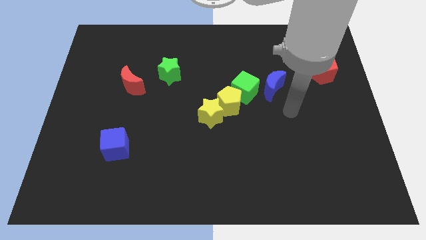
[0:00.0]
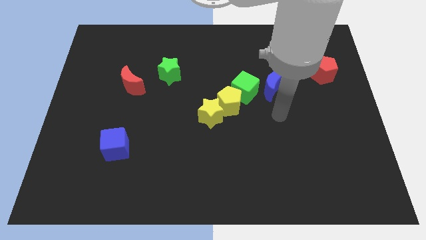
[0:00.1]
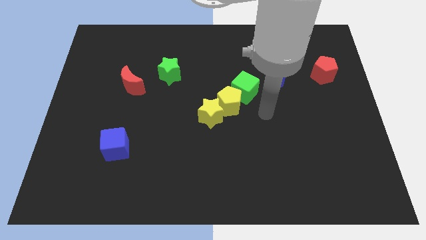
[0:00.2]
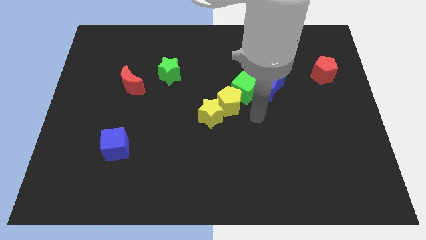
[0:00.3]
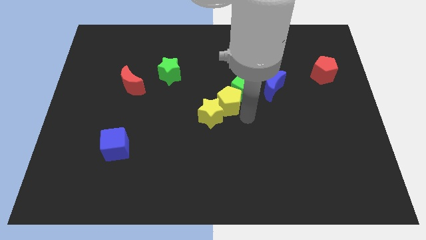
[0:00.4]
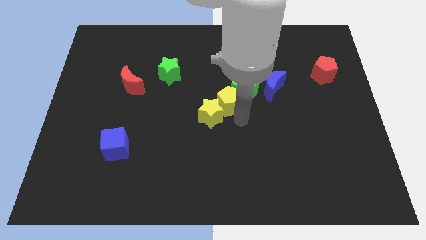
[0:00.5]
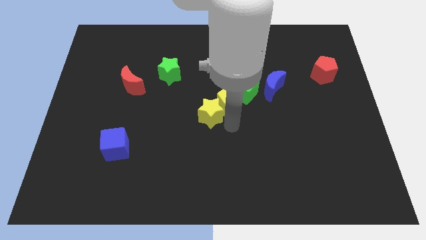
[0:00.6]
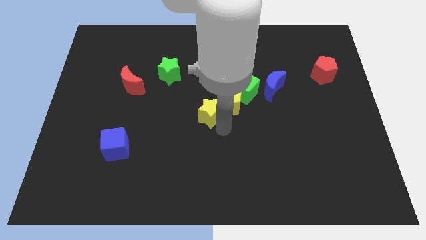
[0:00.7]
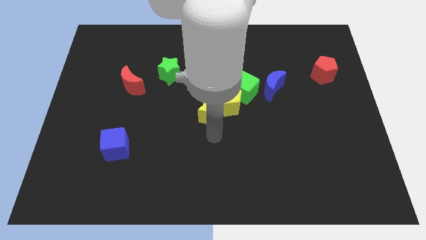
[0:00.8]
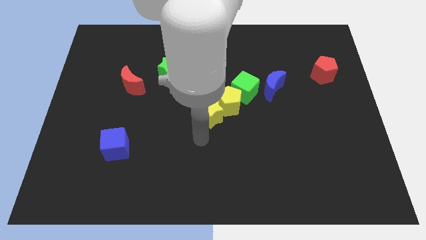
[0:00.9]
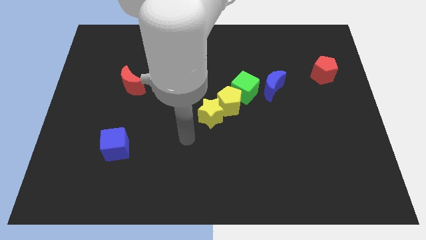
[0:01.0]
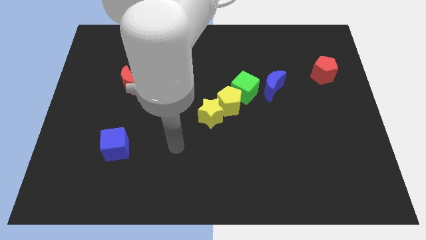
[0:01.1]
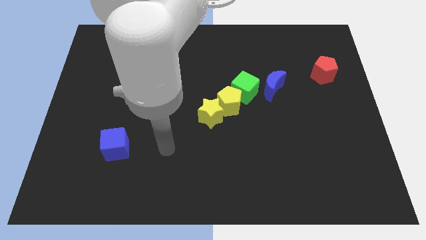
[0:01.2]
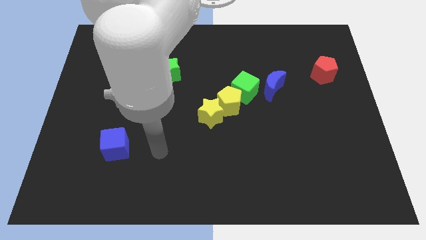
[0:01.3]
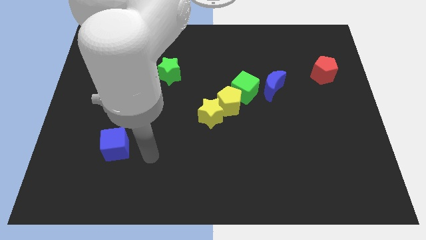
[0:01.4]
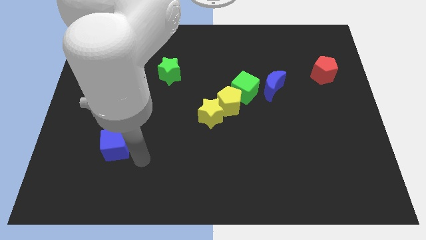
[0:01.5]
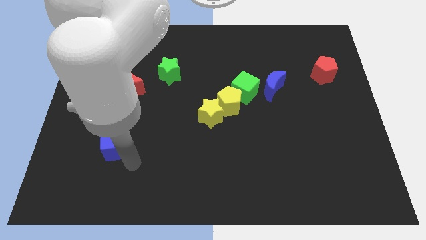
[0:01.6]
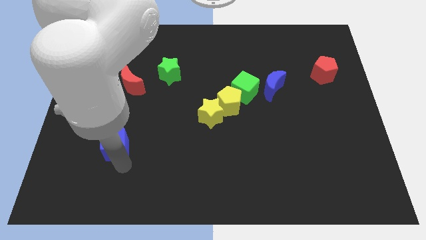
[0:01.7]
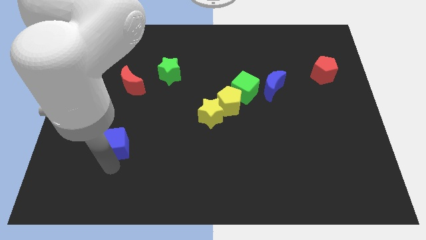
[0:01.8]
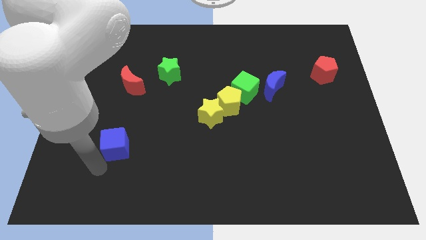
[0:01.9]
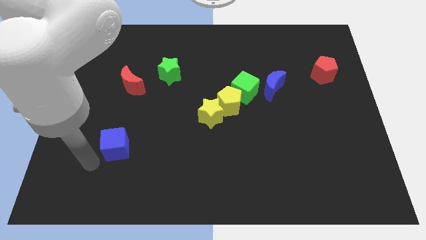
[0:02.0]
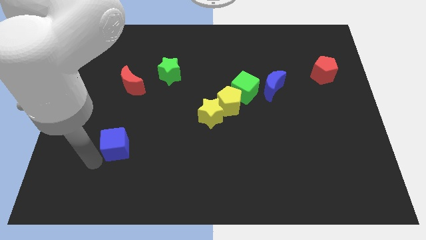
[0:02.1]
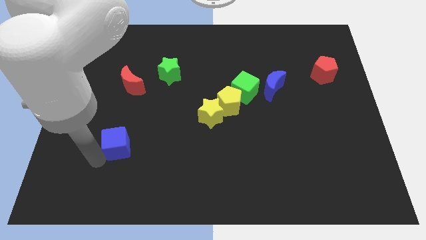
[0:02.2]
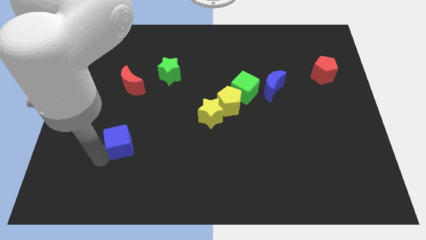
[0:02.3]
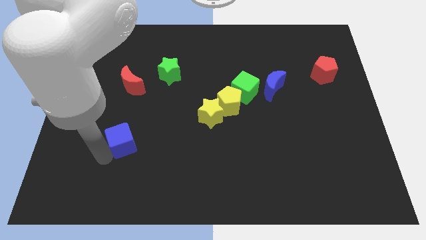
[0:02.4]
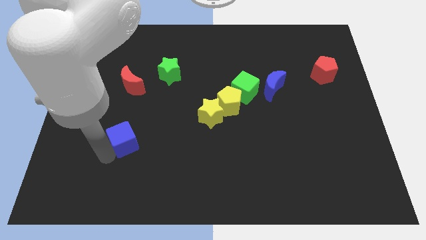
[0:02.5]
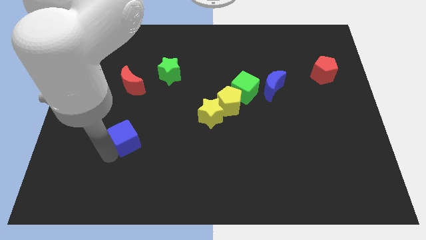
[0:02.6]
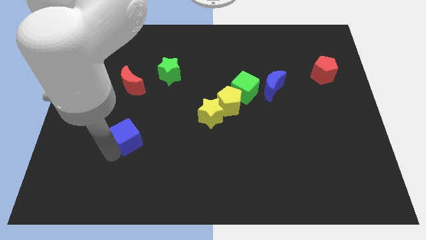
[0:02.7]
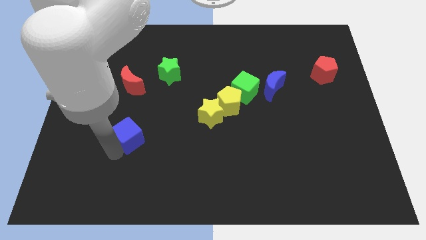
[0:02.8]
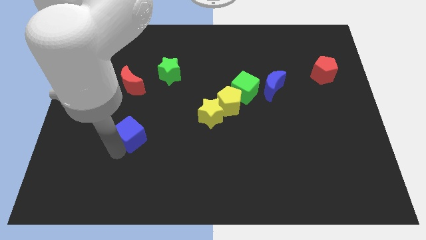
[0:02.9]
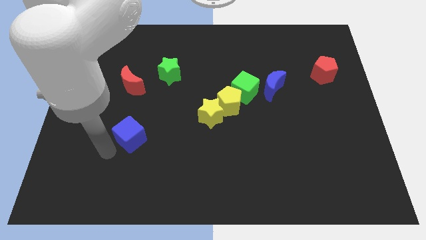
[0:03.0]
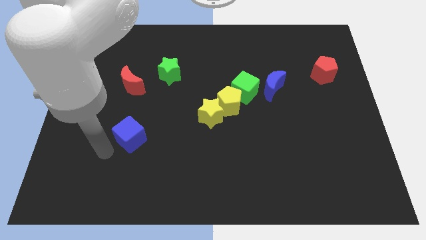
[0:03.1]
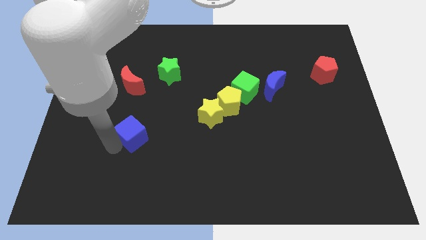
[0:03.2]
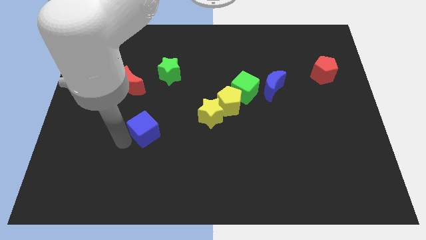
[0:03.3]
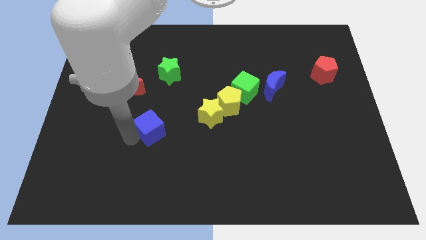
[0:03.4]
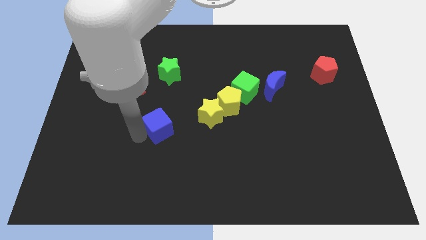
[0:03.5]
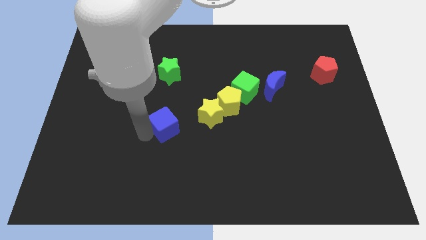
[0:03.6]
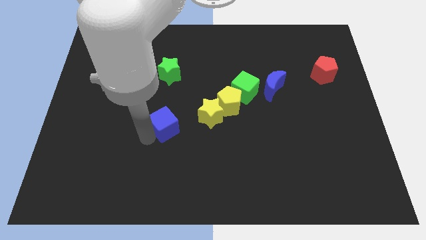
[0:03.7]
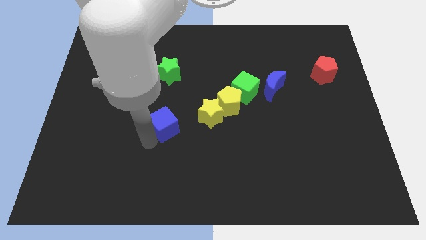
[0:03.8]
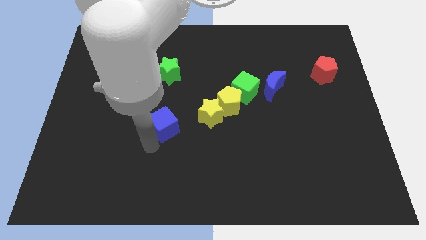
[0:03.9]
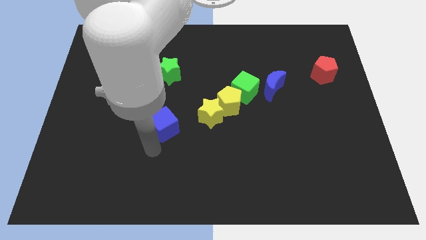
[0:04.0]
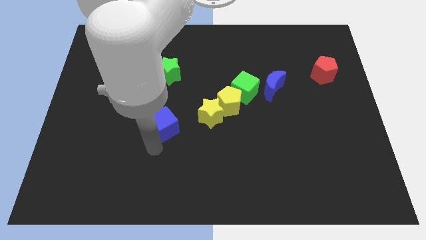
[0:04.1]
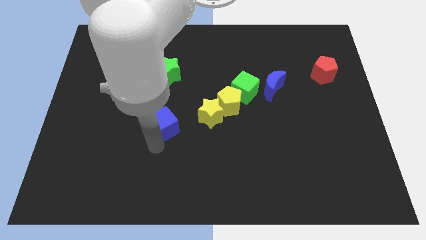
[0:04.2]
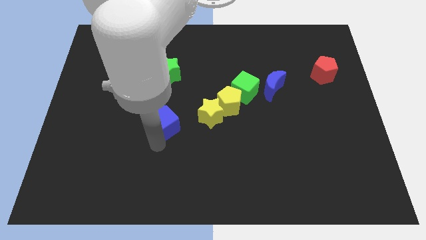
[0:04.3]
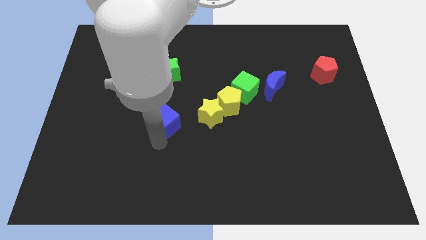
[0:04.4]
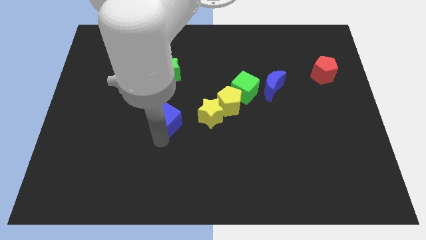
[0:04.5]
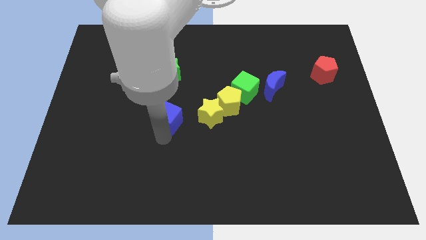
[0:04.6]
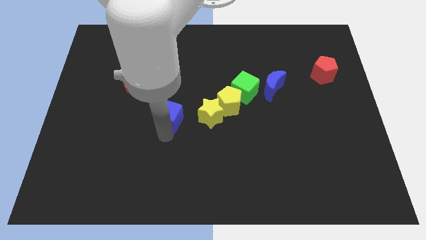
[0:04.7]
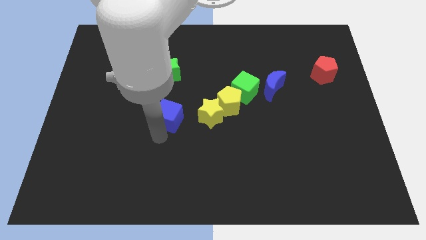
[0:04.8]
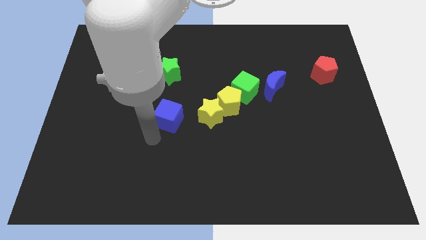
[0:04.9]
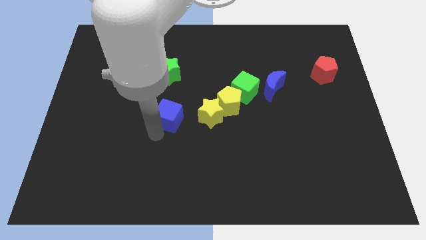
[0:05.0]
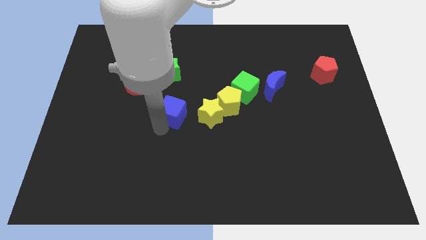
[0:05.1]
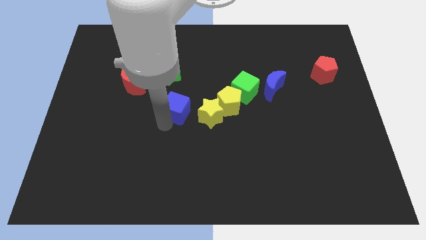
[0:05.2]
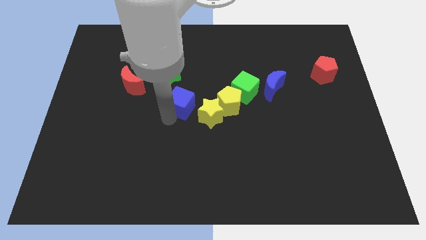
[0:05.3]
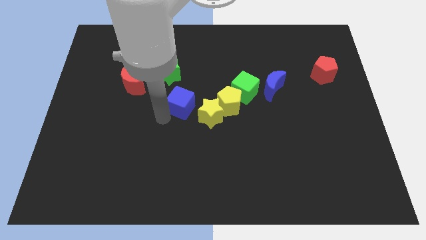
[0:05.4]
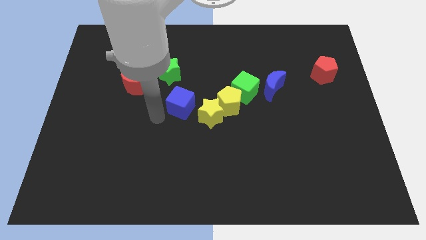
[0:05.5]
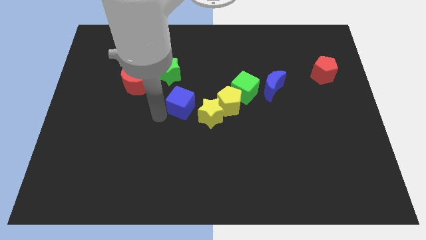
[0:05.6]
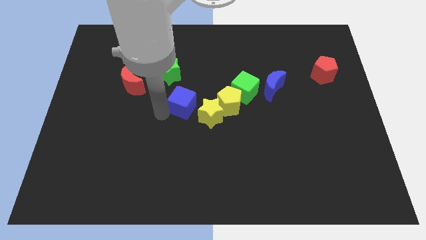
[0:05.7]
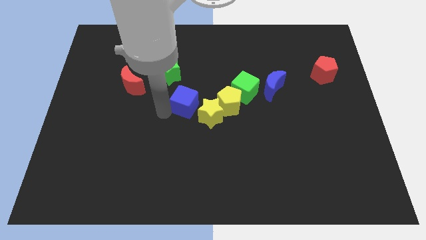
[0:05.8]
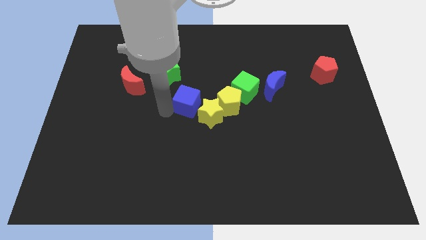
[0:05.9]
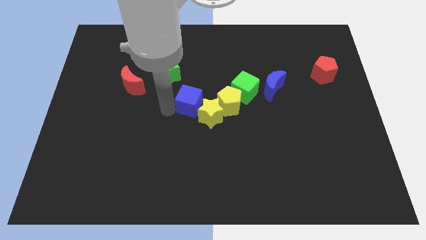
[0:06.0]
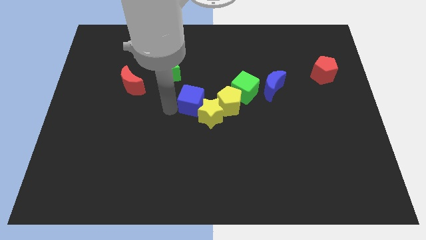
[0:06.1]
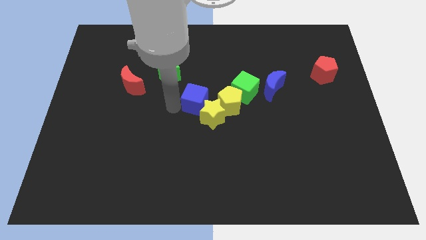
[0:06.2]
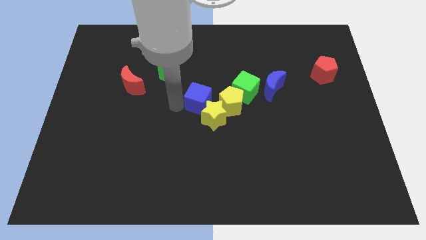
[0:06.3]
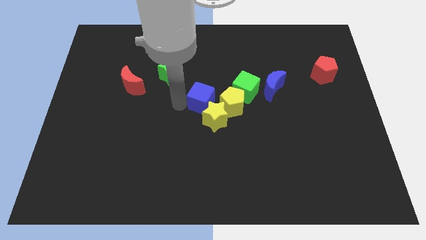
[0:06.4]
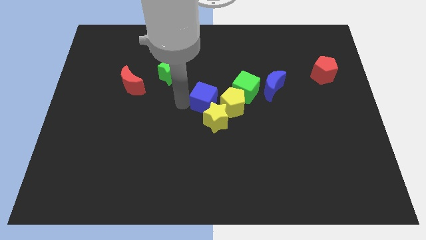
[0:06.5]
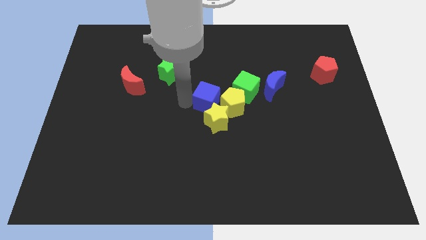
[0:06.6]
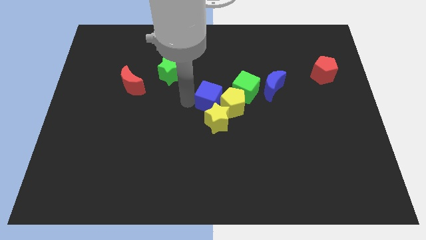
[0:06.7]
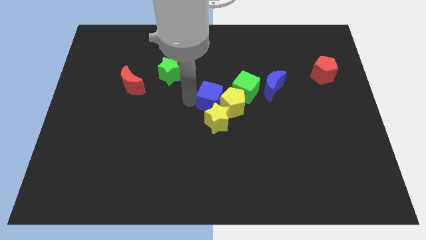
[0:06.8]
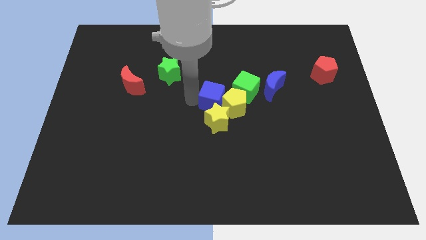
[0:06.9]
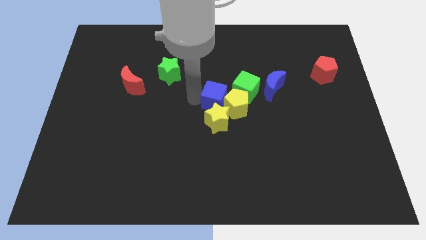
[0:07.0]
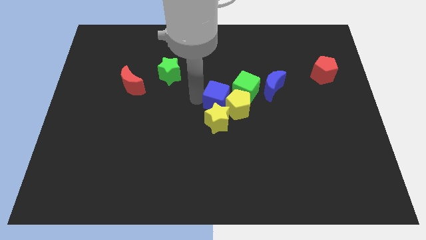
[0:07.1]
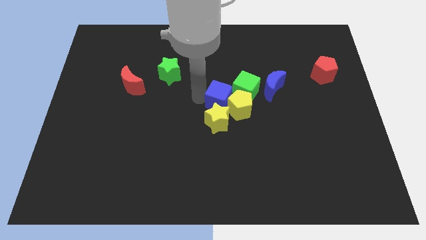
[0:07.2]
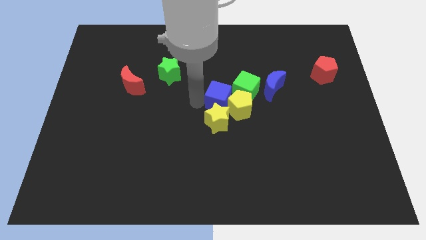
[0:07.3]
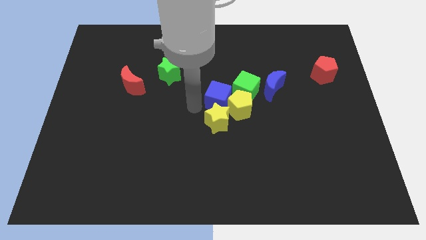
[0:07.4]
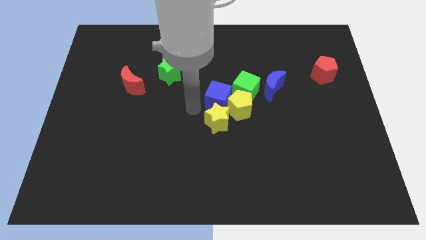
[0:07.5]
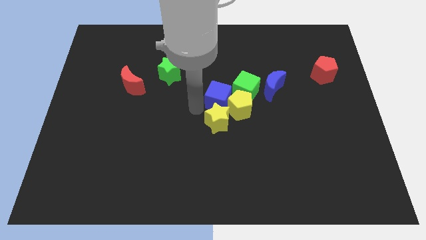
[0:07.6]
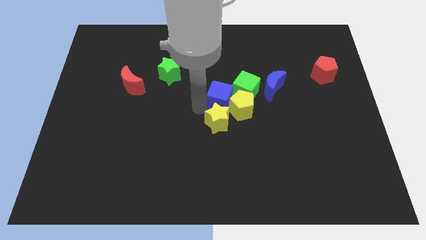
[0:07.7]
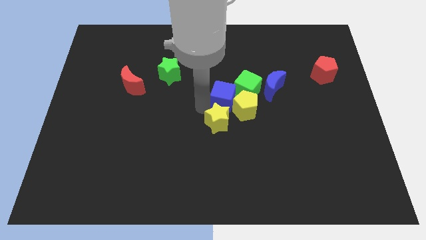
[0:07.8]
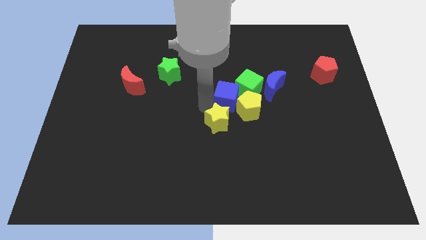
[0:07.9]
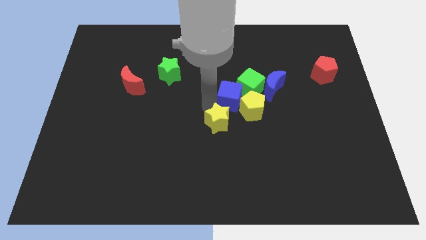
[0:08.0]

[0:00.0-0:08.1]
put the blue cube close to the green cube

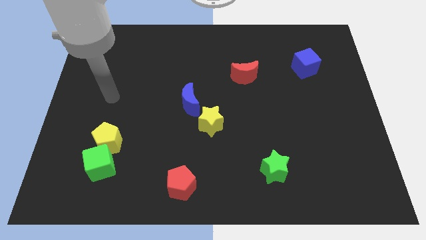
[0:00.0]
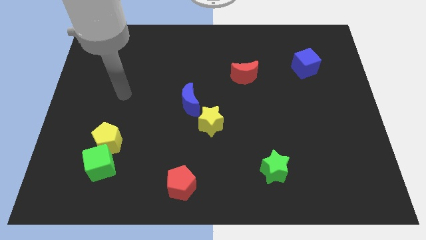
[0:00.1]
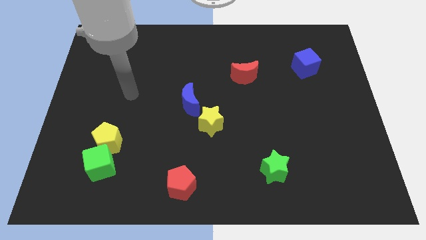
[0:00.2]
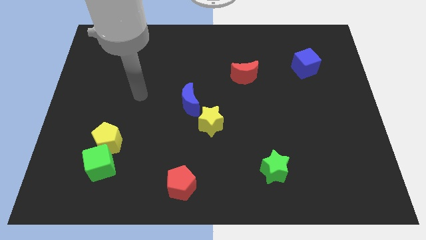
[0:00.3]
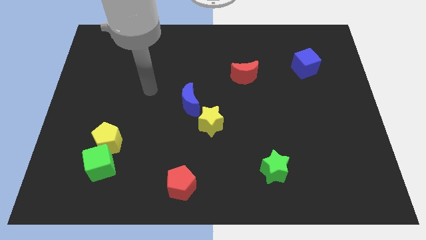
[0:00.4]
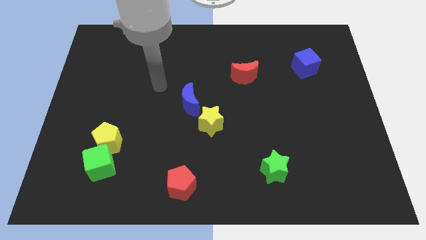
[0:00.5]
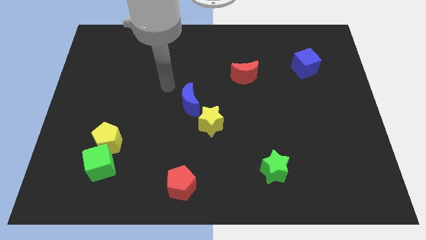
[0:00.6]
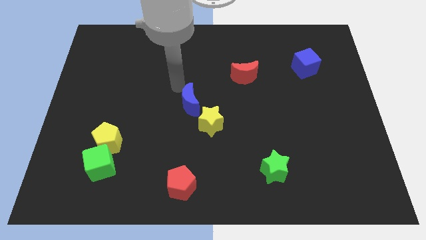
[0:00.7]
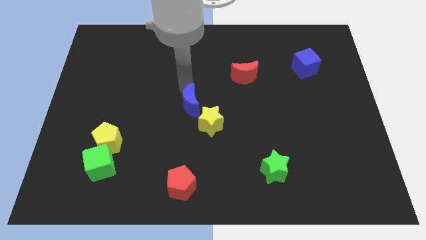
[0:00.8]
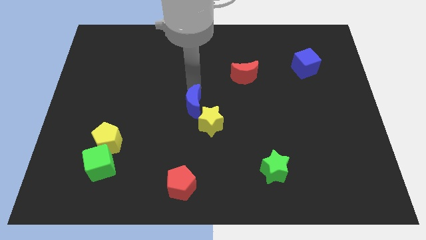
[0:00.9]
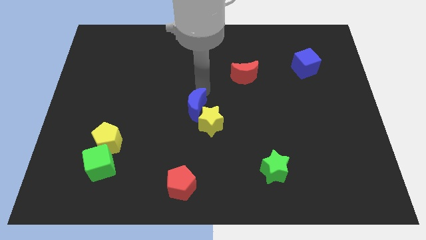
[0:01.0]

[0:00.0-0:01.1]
push the yellow star to the blue moon
